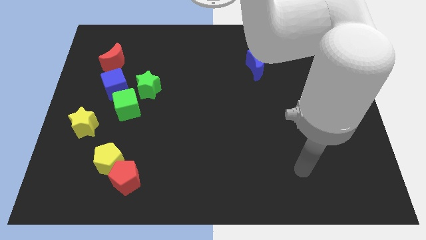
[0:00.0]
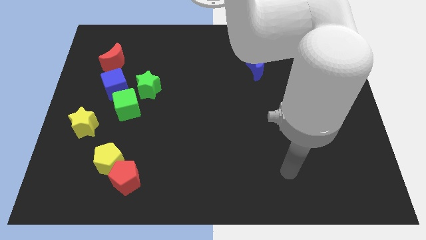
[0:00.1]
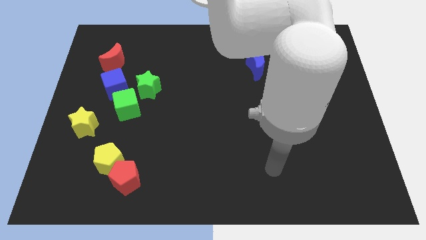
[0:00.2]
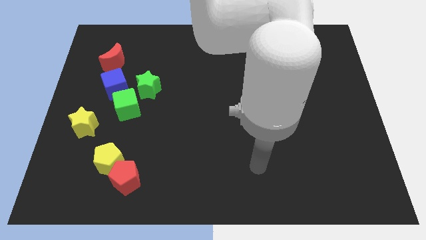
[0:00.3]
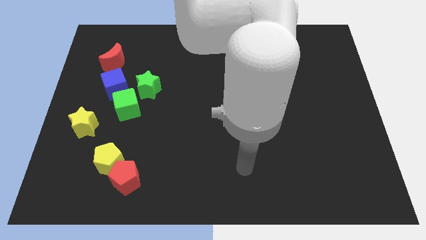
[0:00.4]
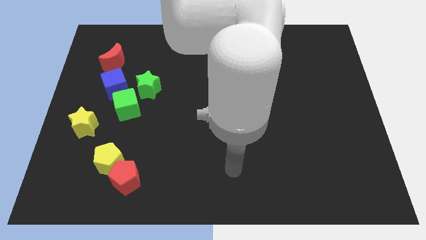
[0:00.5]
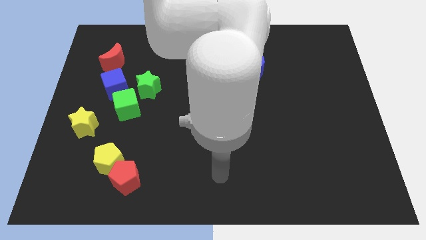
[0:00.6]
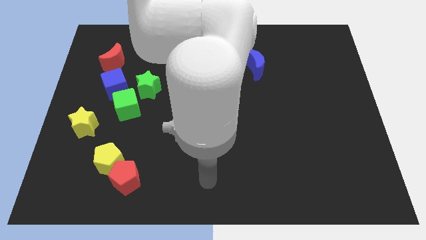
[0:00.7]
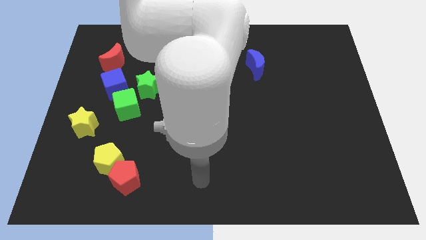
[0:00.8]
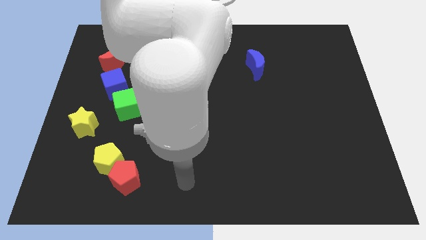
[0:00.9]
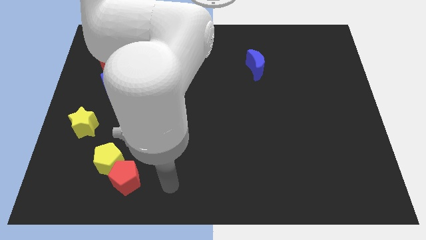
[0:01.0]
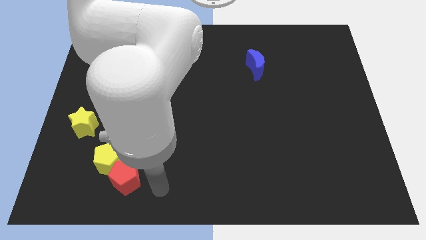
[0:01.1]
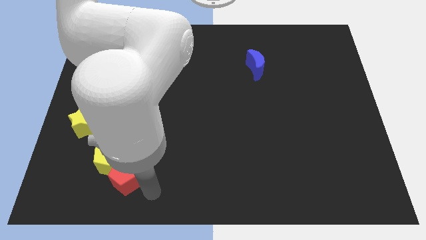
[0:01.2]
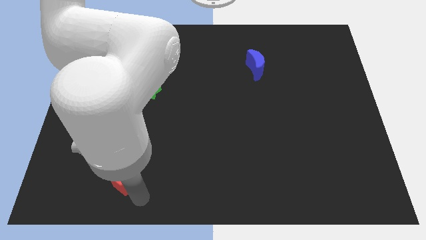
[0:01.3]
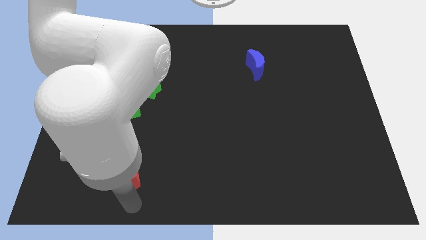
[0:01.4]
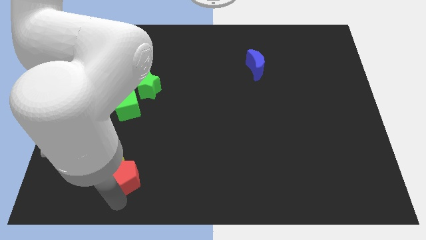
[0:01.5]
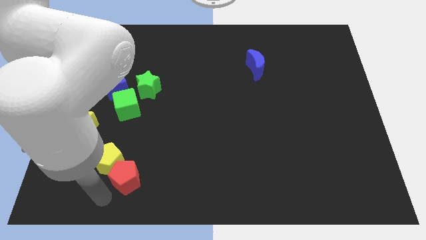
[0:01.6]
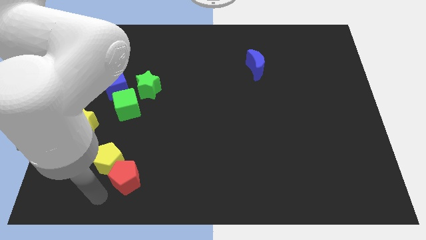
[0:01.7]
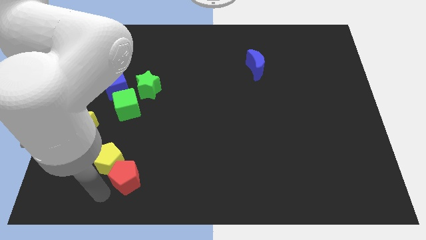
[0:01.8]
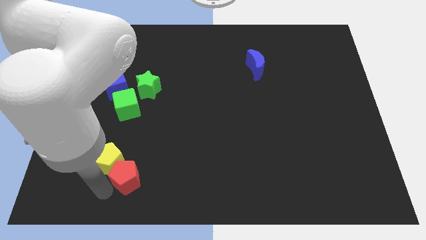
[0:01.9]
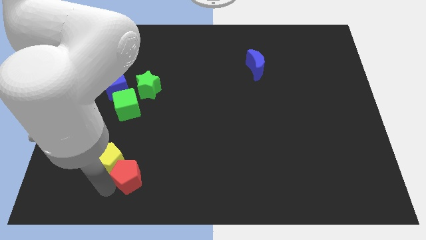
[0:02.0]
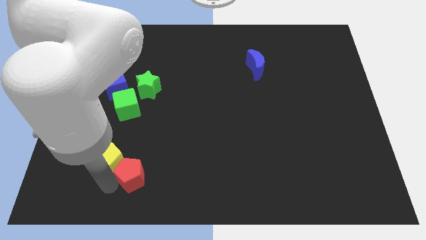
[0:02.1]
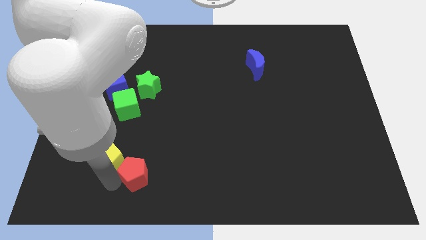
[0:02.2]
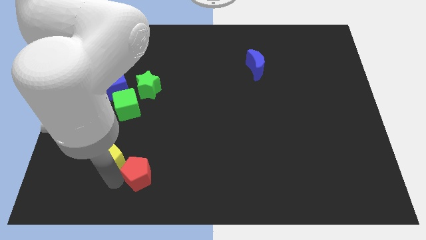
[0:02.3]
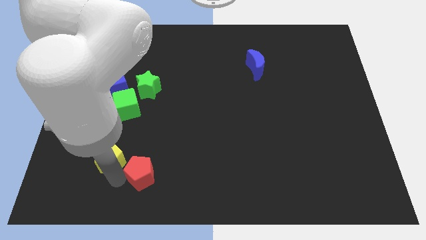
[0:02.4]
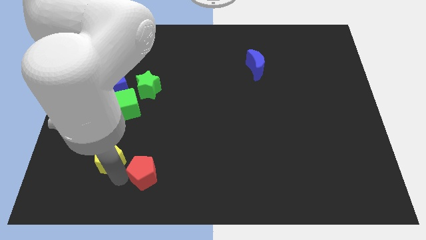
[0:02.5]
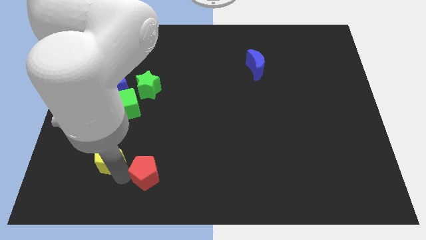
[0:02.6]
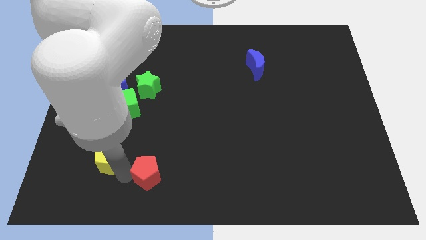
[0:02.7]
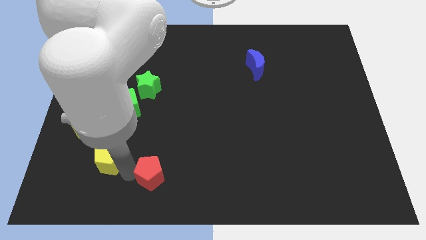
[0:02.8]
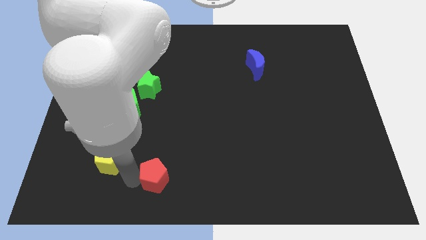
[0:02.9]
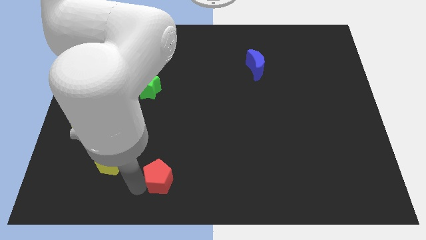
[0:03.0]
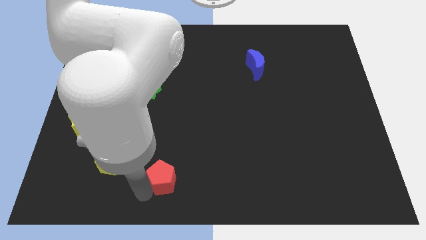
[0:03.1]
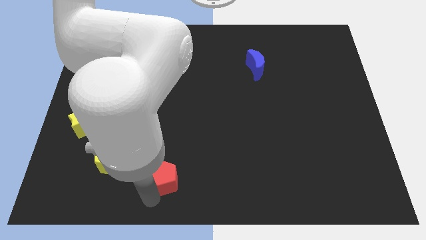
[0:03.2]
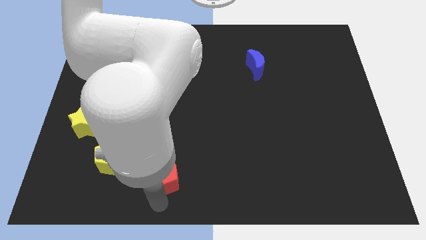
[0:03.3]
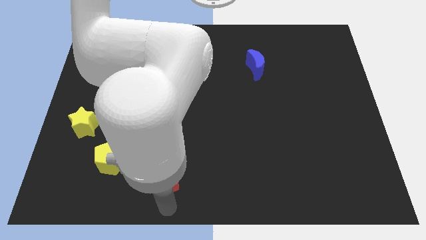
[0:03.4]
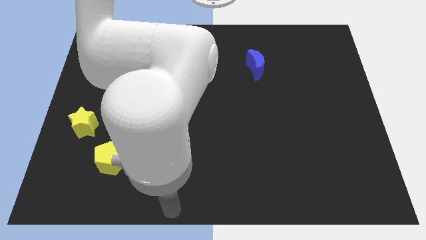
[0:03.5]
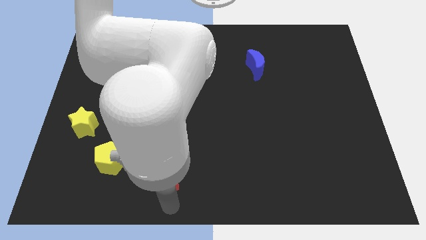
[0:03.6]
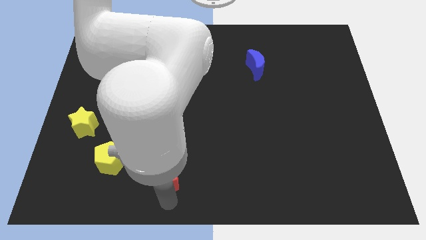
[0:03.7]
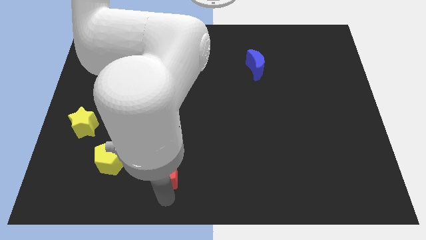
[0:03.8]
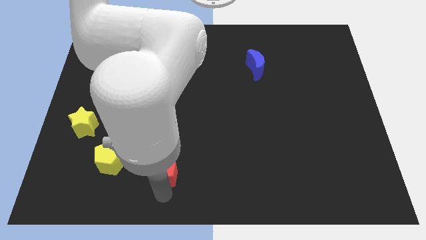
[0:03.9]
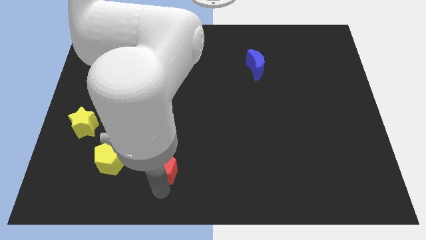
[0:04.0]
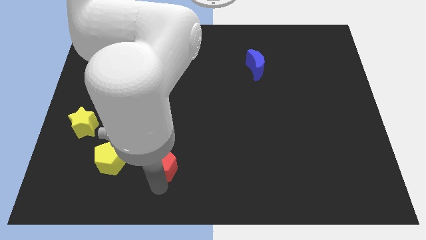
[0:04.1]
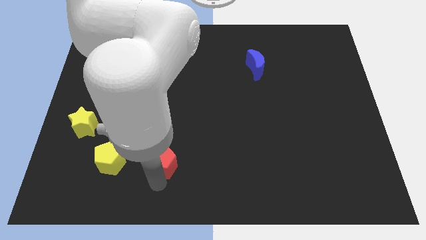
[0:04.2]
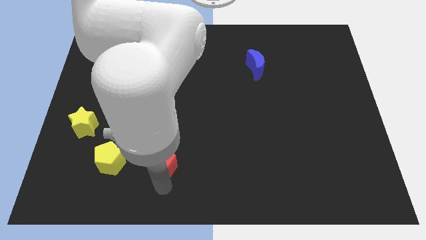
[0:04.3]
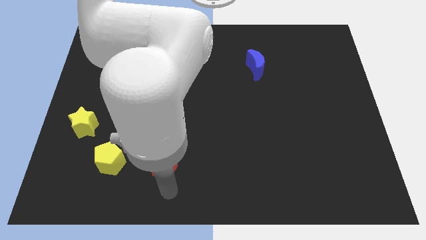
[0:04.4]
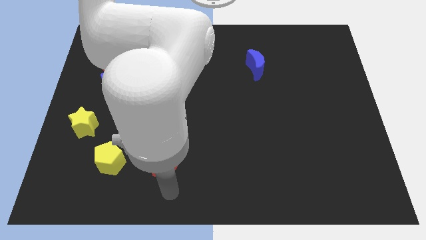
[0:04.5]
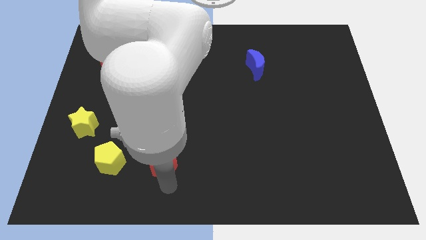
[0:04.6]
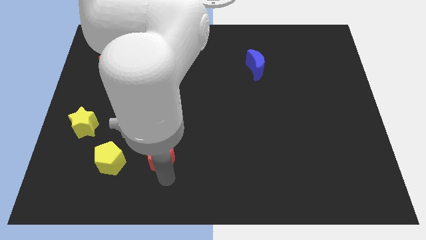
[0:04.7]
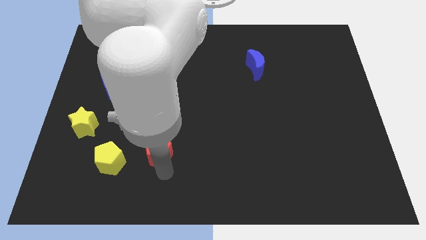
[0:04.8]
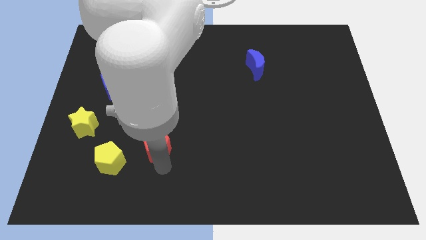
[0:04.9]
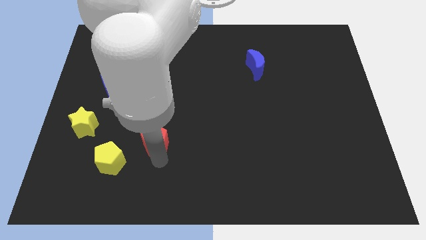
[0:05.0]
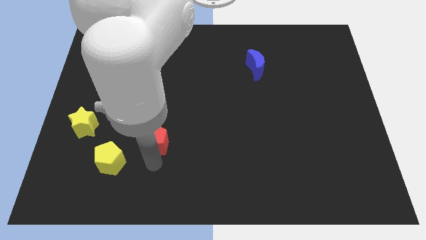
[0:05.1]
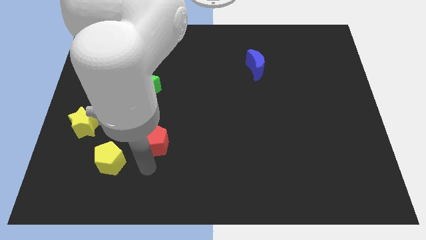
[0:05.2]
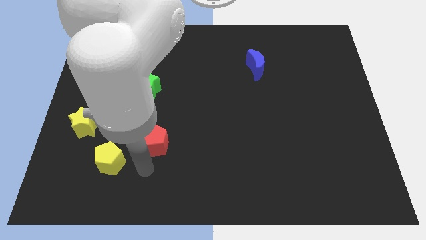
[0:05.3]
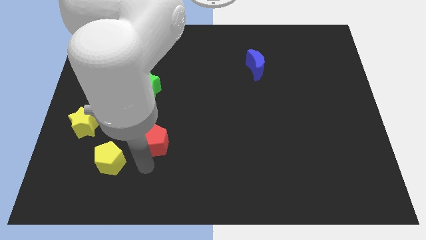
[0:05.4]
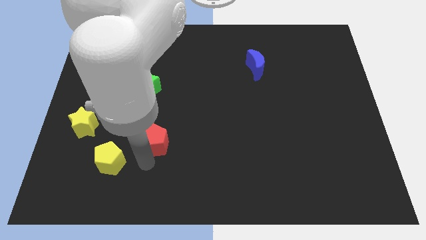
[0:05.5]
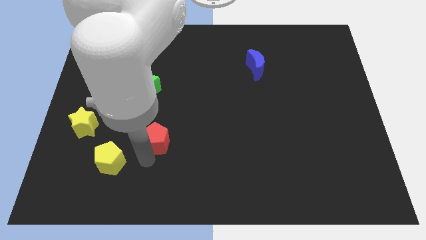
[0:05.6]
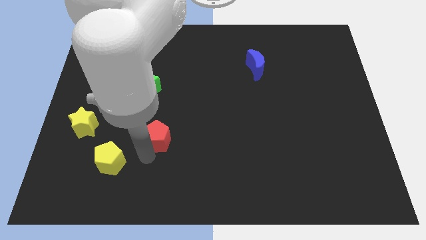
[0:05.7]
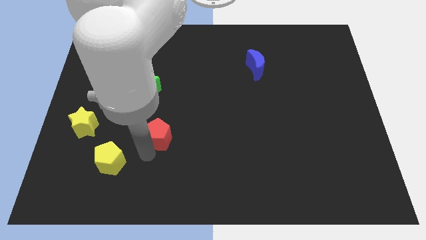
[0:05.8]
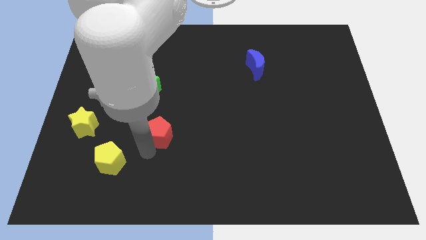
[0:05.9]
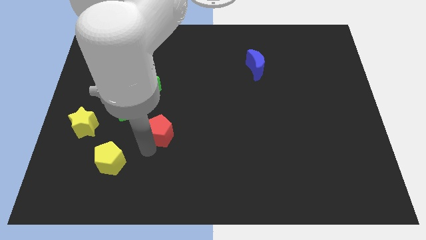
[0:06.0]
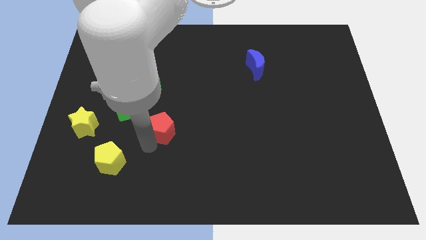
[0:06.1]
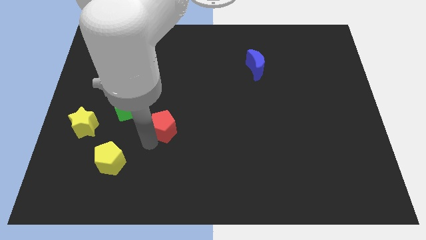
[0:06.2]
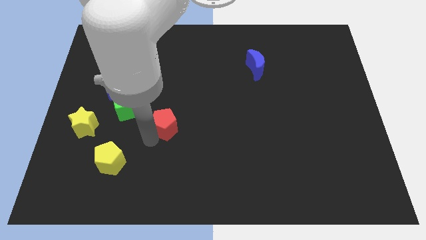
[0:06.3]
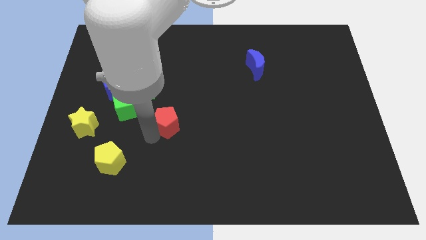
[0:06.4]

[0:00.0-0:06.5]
move the red pentagon just right of the green cube

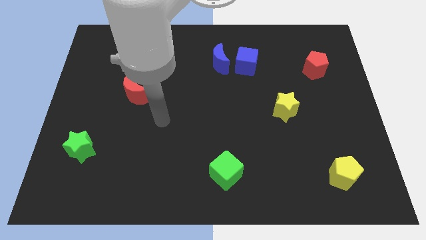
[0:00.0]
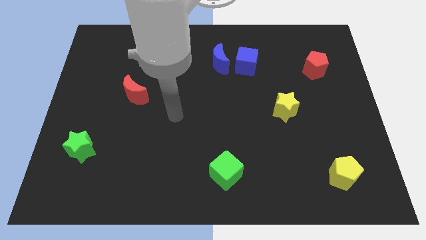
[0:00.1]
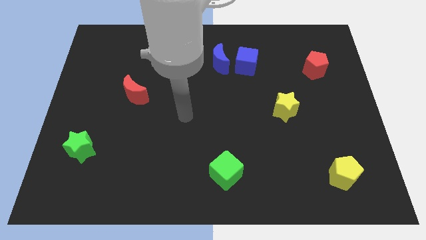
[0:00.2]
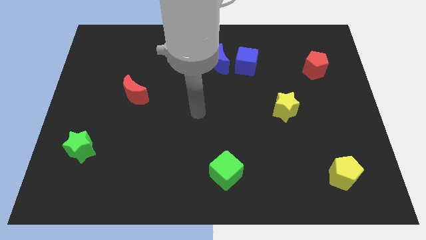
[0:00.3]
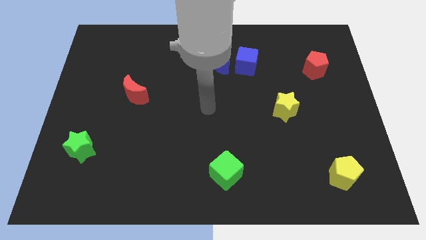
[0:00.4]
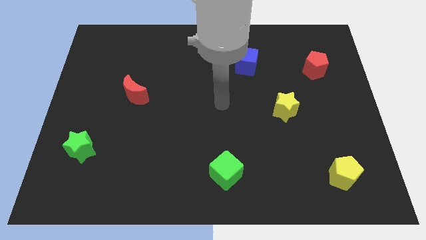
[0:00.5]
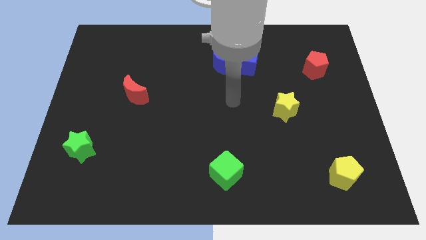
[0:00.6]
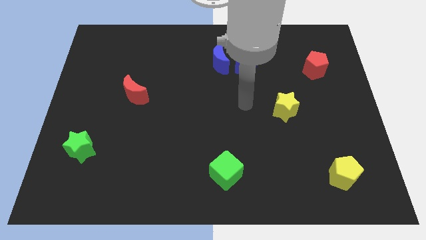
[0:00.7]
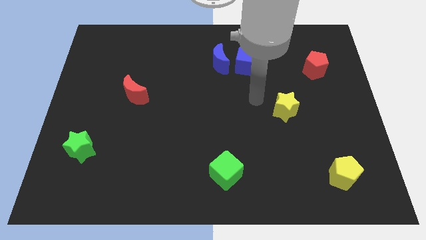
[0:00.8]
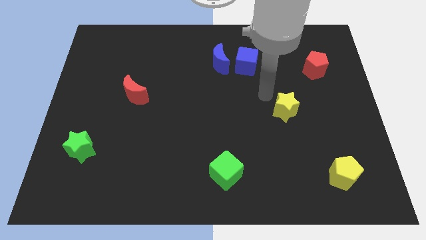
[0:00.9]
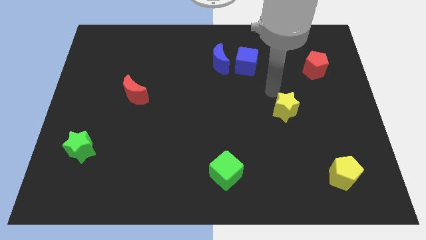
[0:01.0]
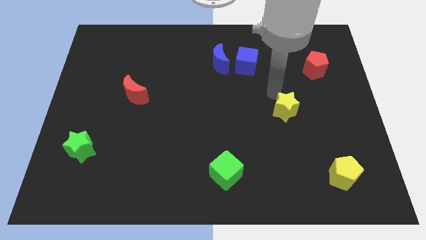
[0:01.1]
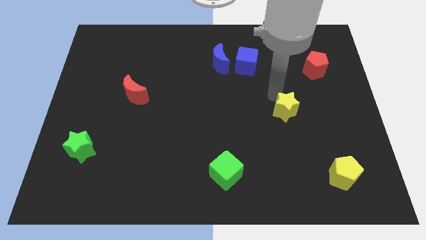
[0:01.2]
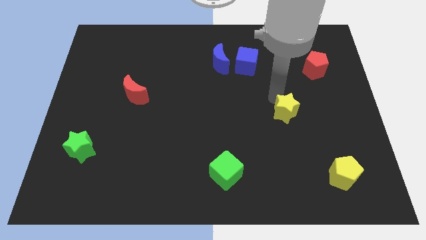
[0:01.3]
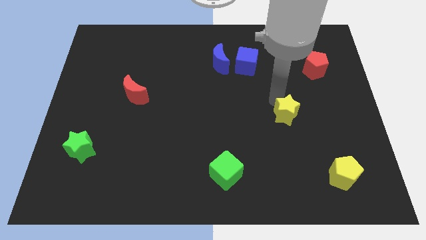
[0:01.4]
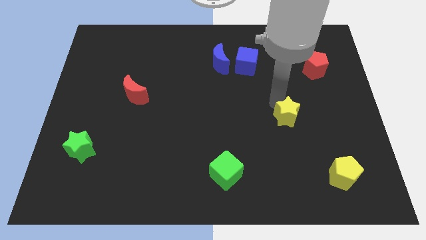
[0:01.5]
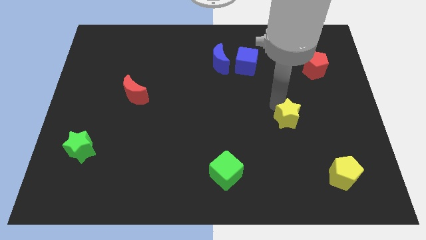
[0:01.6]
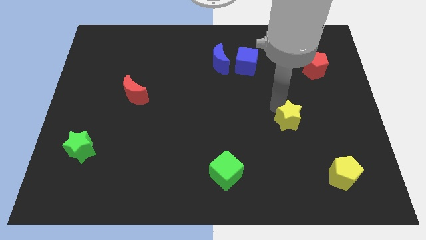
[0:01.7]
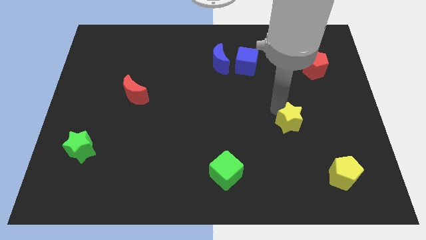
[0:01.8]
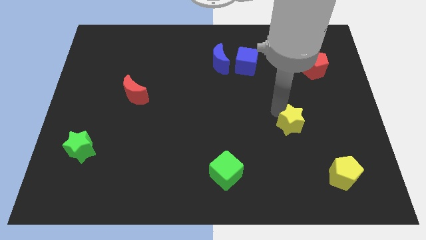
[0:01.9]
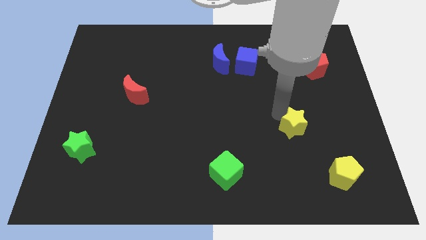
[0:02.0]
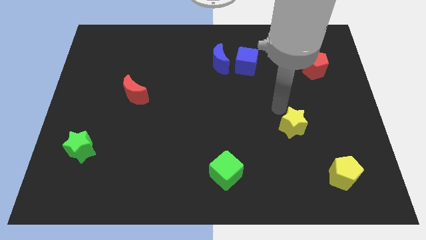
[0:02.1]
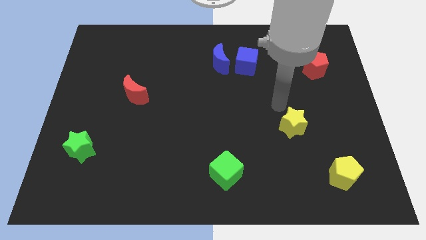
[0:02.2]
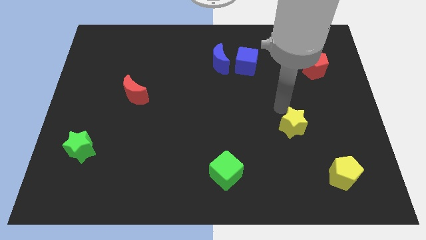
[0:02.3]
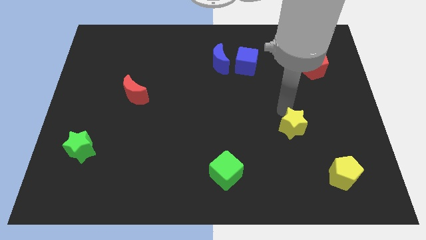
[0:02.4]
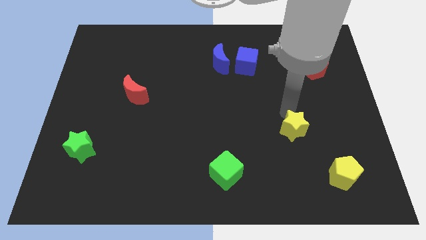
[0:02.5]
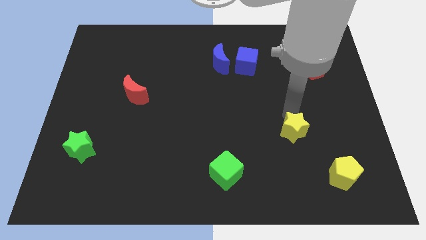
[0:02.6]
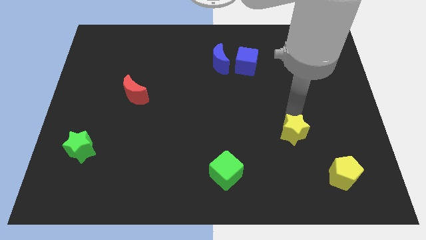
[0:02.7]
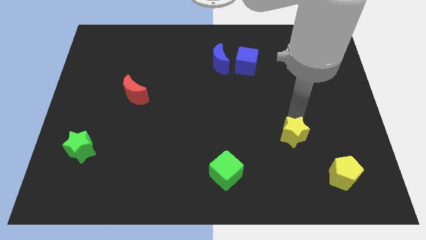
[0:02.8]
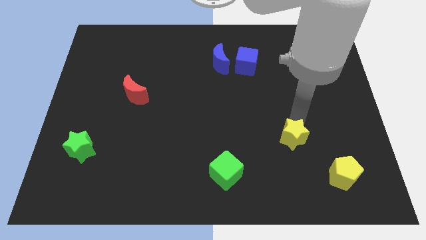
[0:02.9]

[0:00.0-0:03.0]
move the yellow star to the top left of the yellow pentagon
